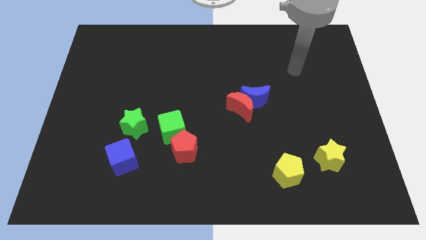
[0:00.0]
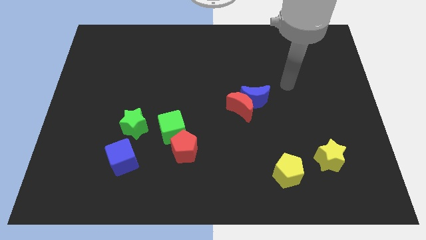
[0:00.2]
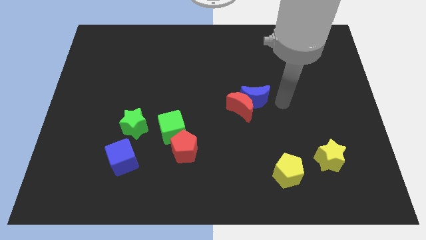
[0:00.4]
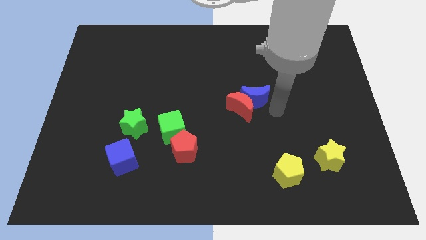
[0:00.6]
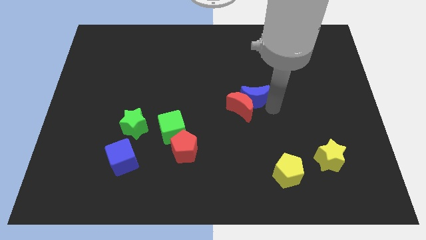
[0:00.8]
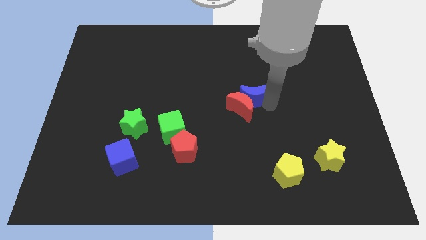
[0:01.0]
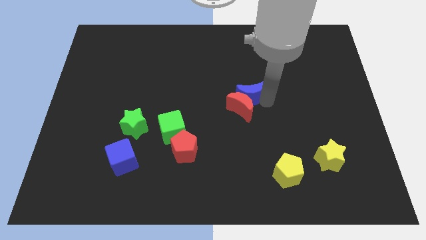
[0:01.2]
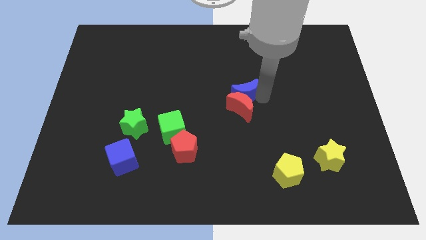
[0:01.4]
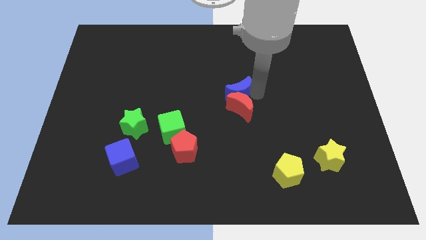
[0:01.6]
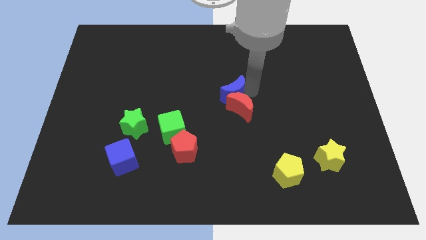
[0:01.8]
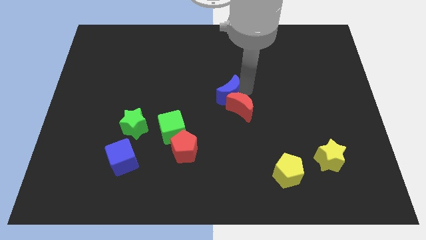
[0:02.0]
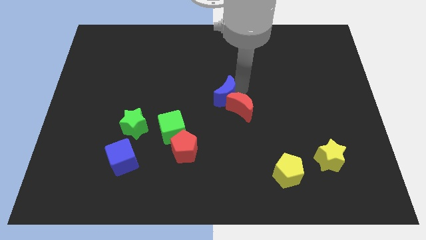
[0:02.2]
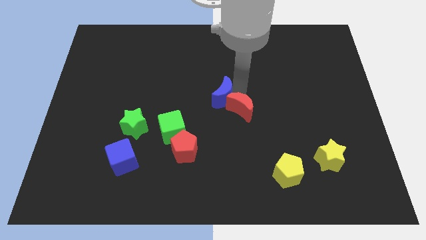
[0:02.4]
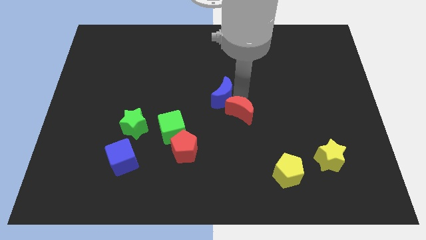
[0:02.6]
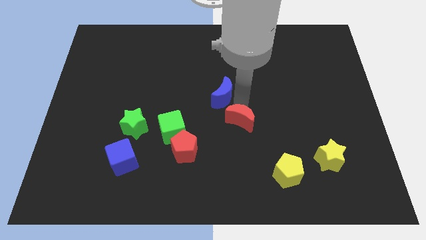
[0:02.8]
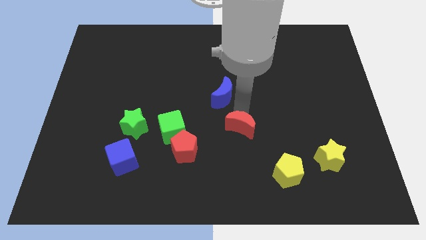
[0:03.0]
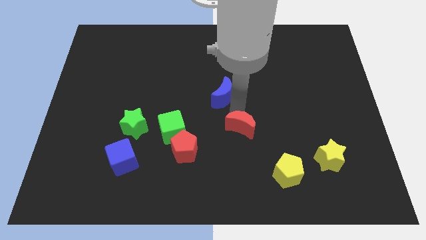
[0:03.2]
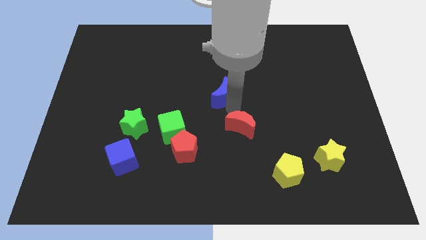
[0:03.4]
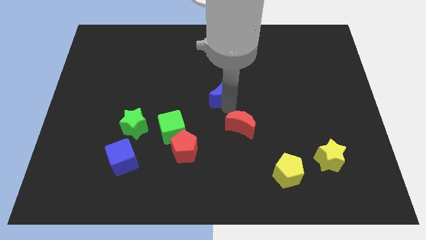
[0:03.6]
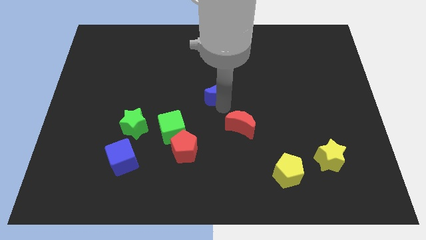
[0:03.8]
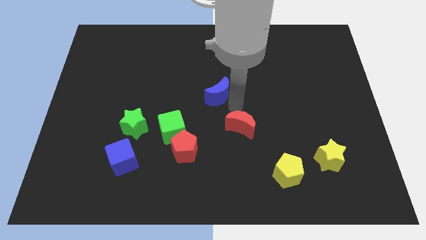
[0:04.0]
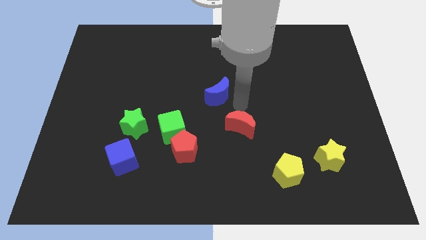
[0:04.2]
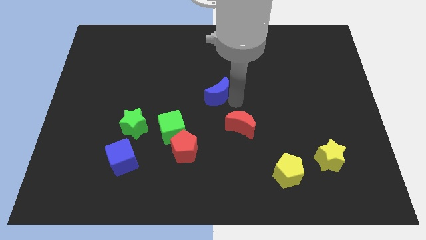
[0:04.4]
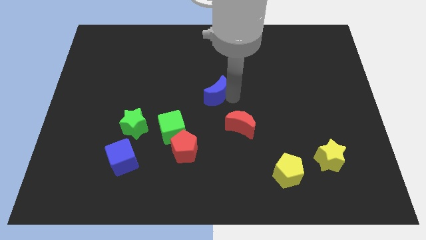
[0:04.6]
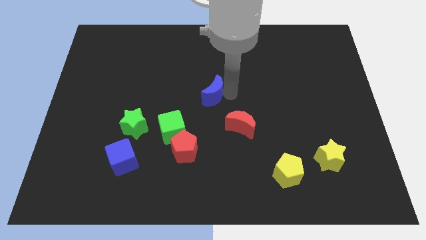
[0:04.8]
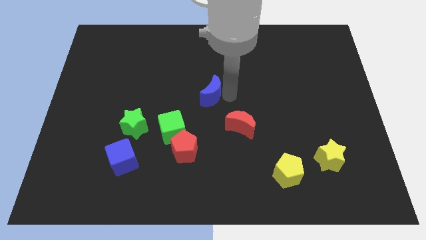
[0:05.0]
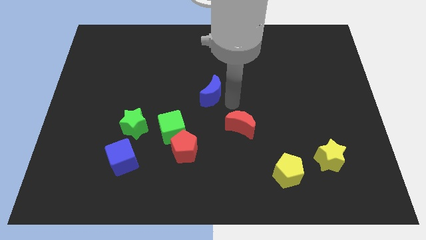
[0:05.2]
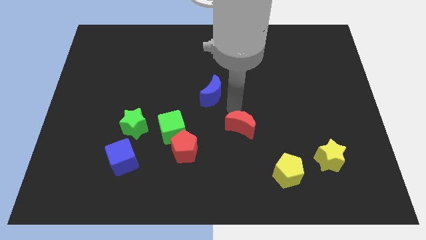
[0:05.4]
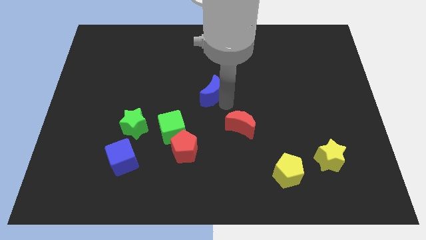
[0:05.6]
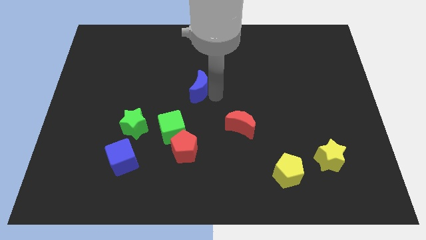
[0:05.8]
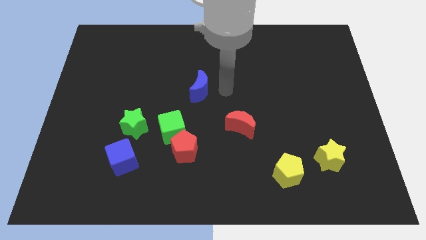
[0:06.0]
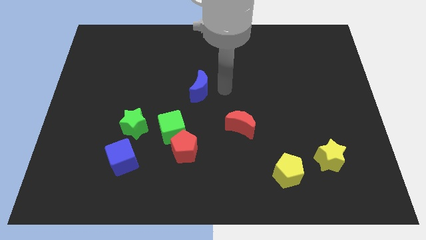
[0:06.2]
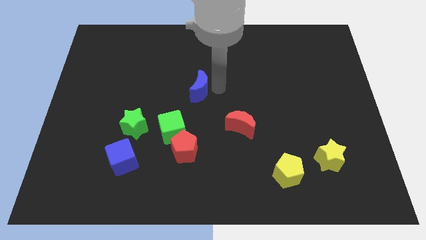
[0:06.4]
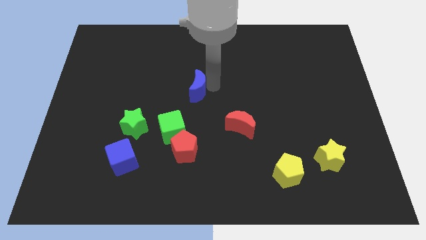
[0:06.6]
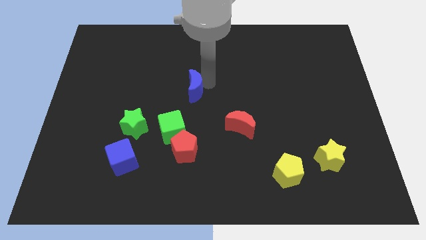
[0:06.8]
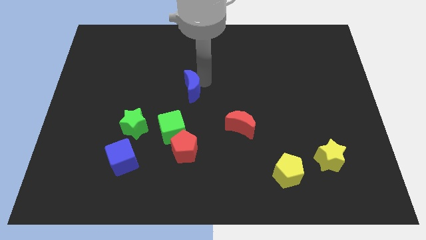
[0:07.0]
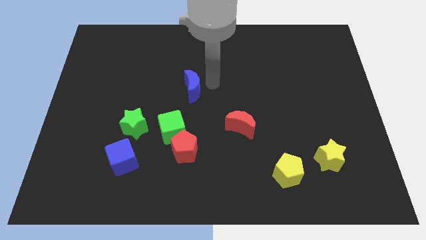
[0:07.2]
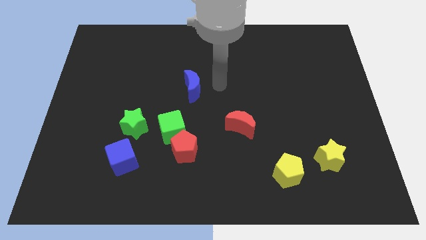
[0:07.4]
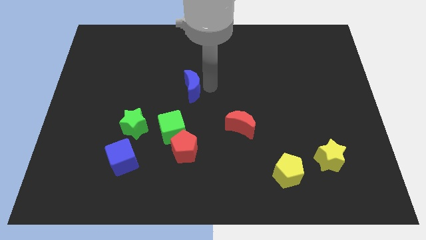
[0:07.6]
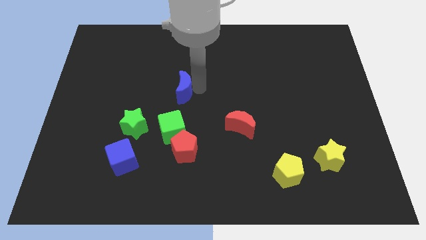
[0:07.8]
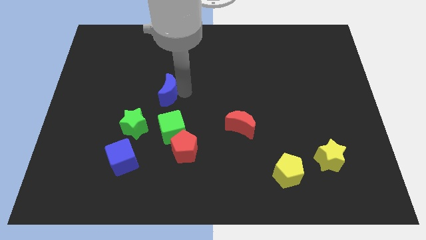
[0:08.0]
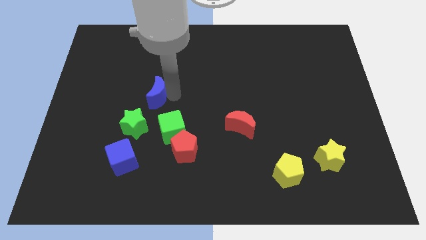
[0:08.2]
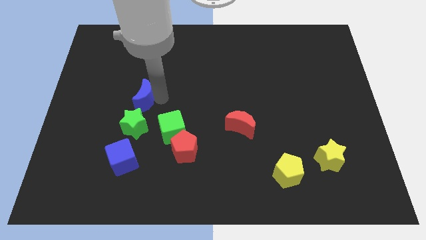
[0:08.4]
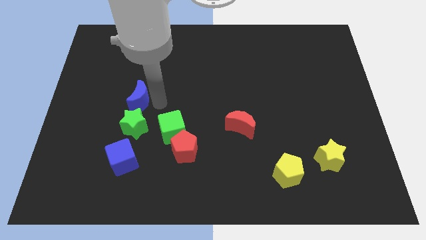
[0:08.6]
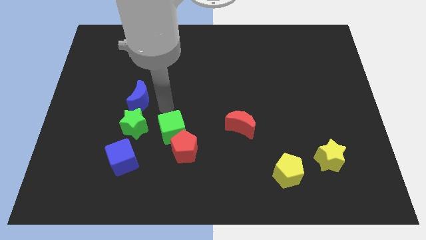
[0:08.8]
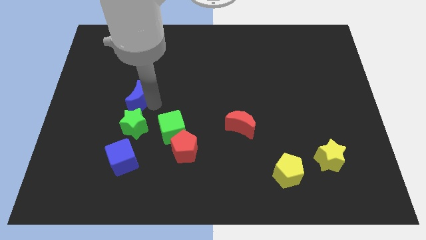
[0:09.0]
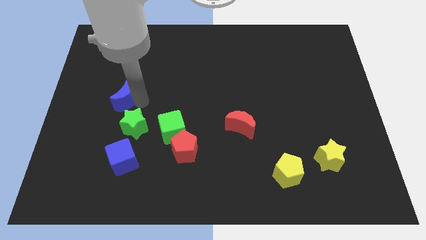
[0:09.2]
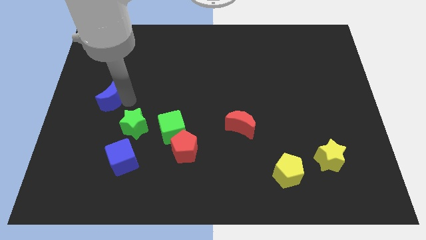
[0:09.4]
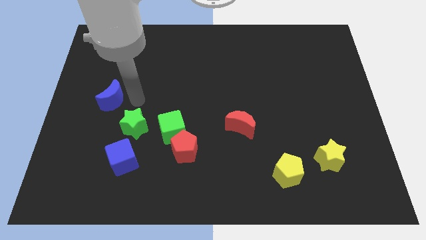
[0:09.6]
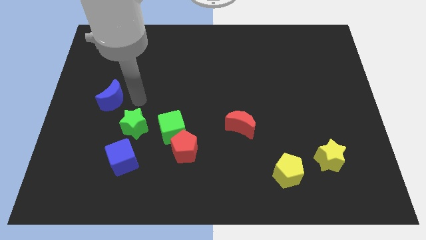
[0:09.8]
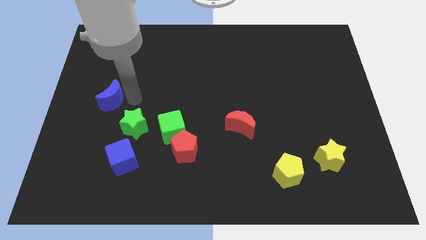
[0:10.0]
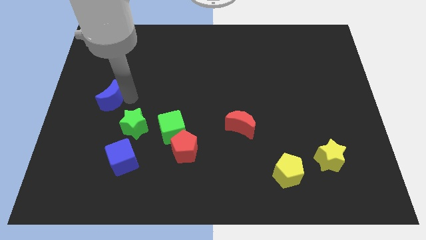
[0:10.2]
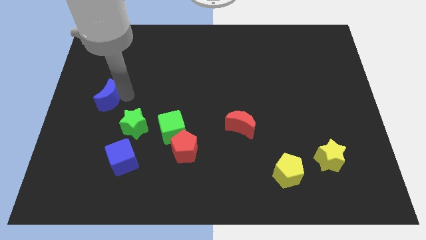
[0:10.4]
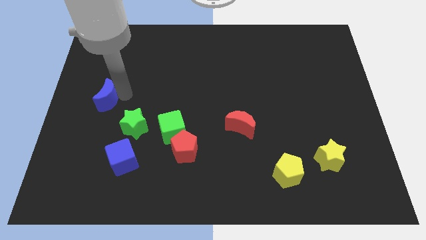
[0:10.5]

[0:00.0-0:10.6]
slide the blue moon to the left side of the board

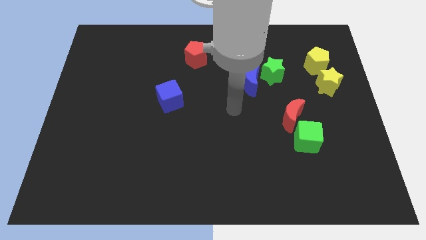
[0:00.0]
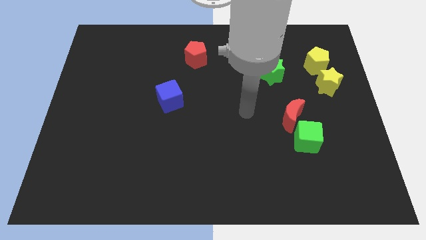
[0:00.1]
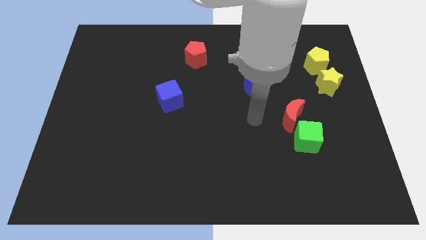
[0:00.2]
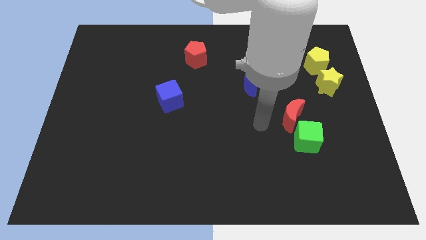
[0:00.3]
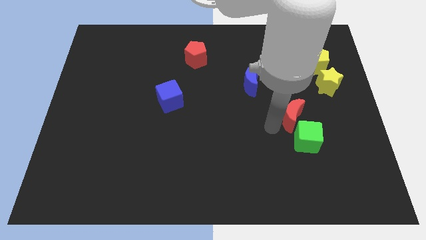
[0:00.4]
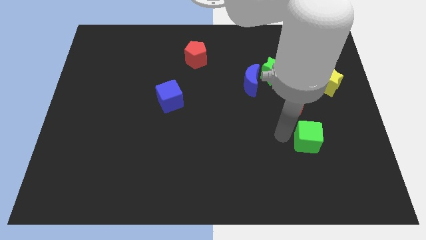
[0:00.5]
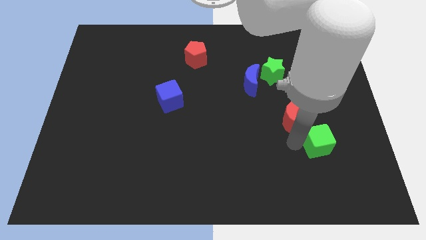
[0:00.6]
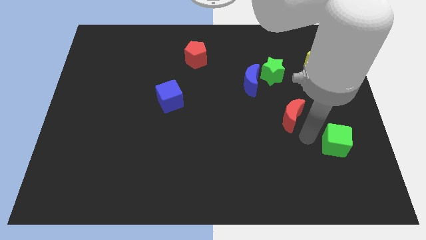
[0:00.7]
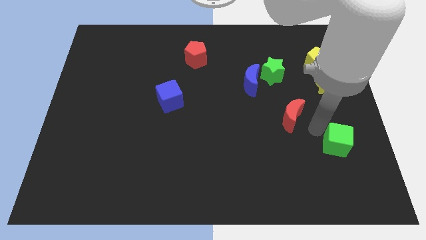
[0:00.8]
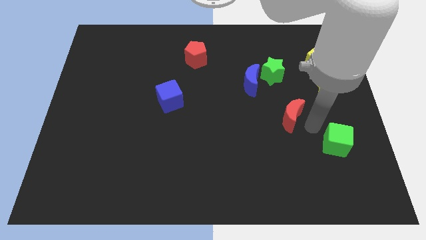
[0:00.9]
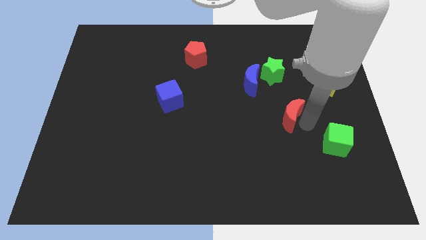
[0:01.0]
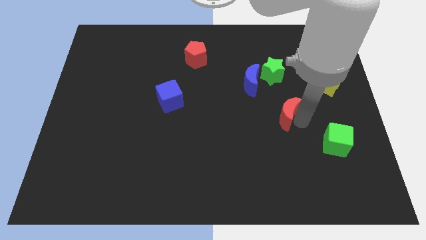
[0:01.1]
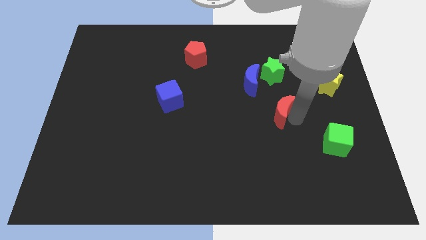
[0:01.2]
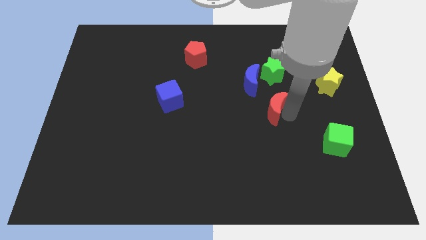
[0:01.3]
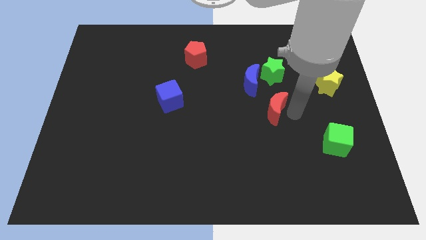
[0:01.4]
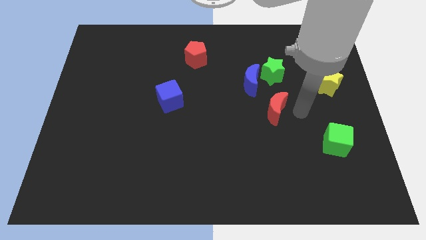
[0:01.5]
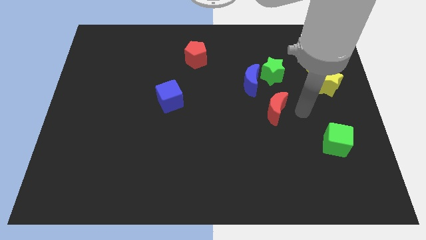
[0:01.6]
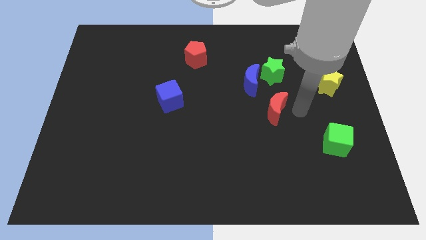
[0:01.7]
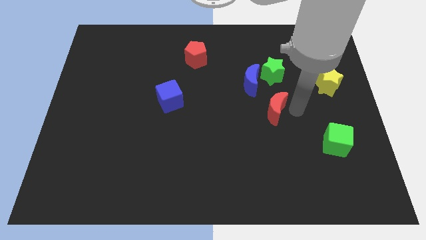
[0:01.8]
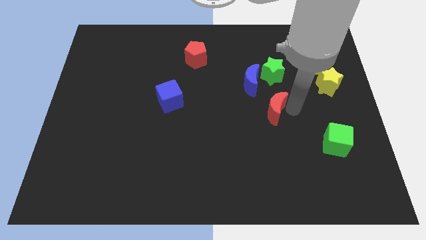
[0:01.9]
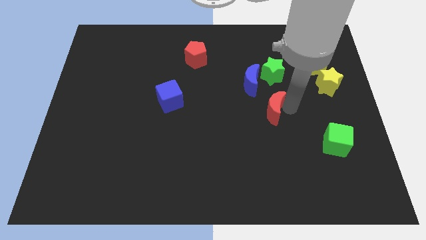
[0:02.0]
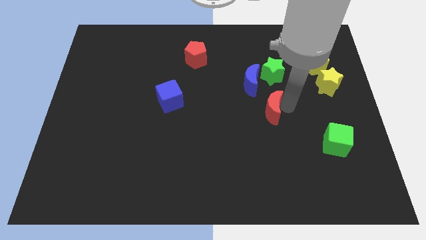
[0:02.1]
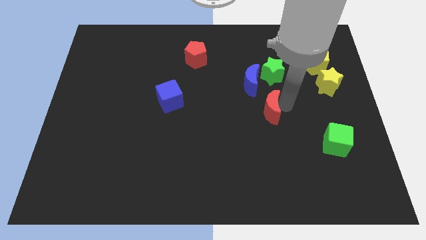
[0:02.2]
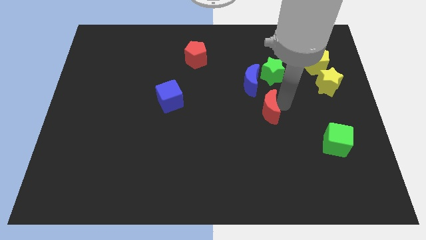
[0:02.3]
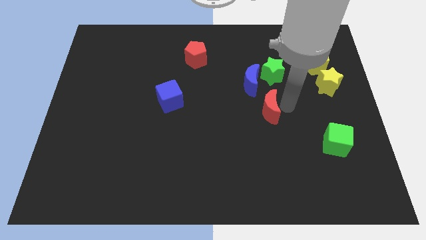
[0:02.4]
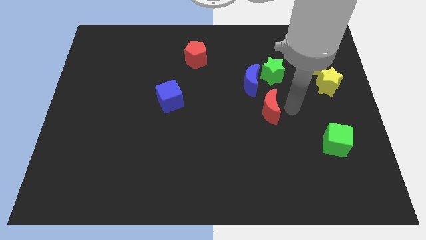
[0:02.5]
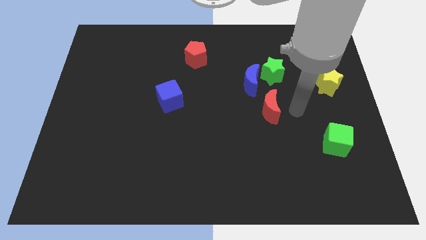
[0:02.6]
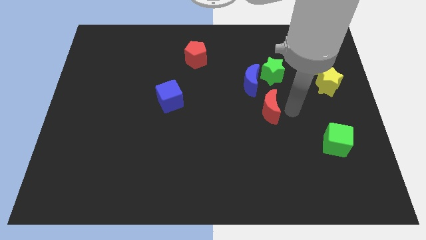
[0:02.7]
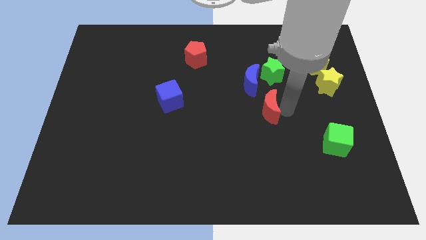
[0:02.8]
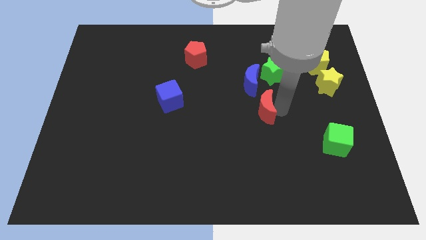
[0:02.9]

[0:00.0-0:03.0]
slide the red moon to the center
